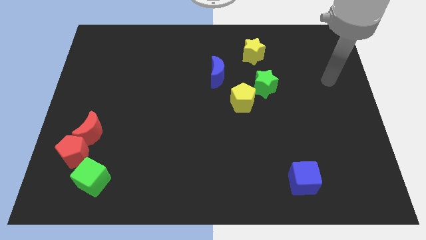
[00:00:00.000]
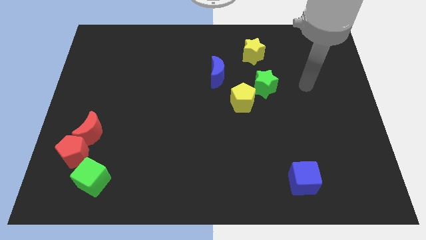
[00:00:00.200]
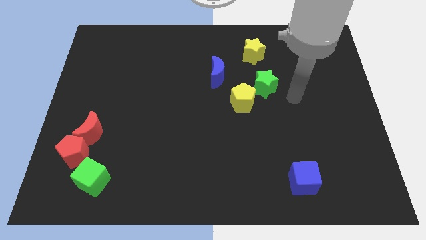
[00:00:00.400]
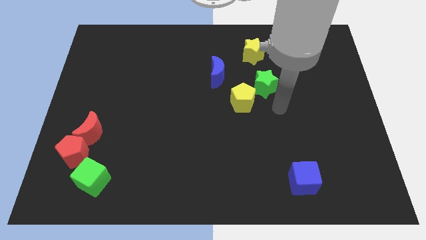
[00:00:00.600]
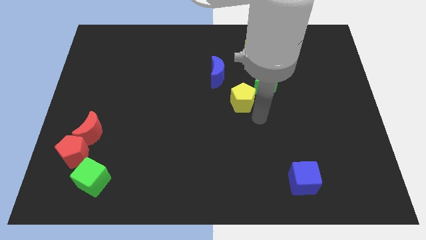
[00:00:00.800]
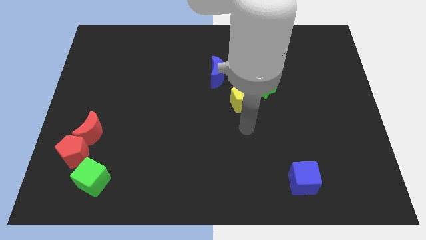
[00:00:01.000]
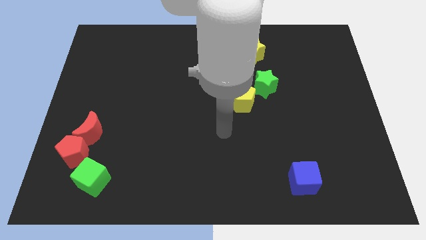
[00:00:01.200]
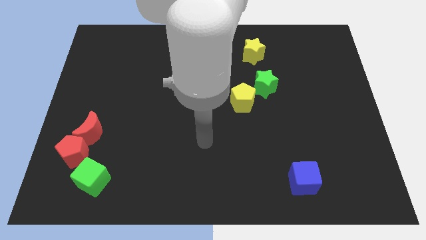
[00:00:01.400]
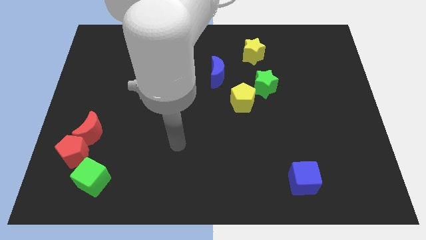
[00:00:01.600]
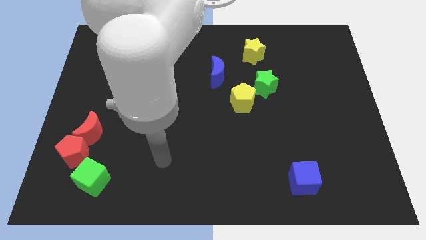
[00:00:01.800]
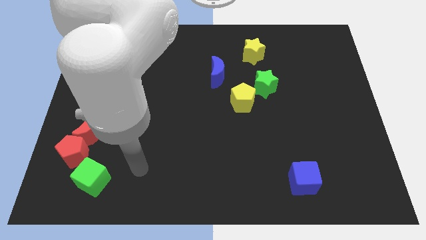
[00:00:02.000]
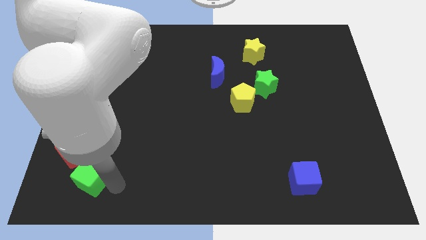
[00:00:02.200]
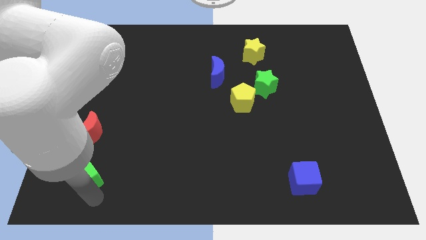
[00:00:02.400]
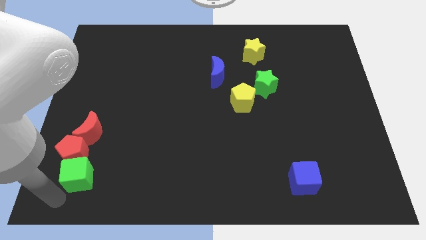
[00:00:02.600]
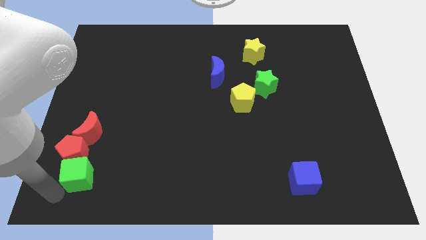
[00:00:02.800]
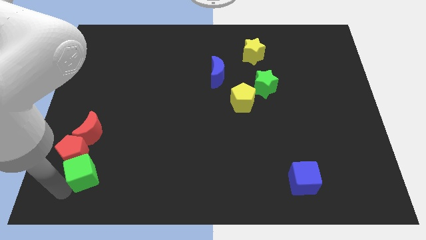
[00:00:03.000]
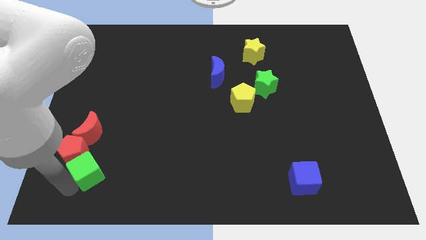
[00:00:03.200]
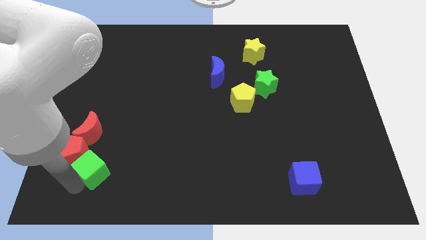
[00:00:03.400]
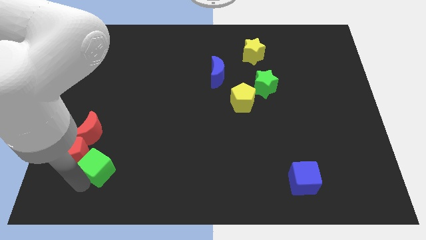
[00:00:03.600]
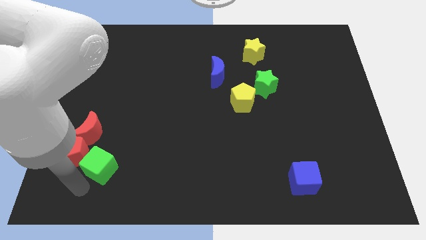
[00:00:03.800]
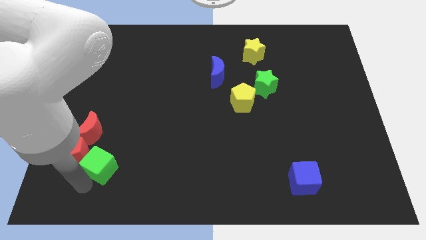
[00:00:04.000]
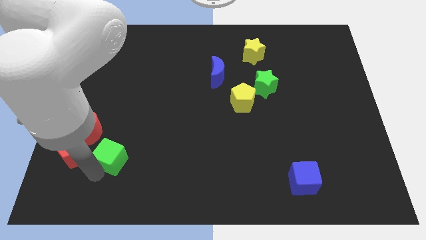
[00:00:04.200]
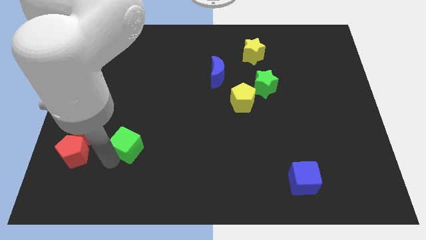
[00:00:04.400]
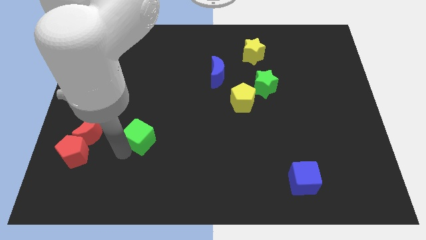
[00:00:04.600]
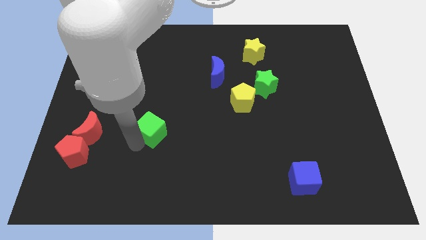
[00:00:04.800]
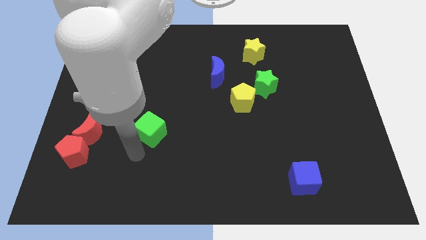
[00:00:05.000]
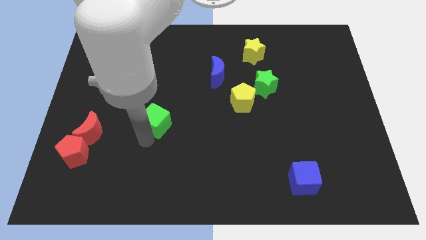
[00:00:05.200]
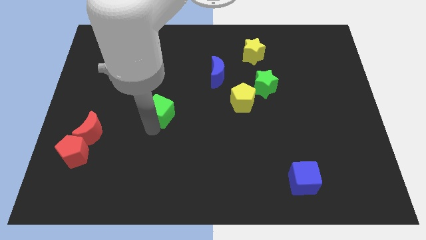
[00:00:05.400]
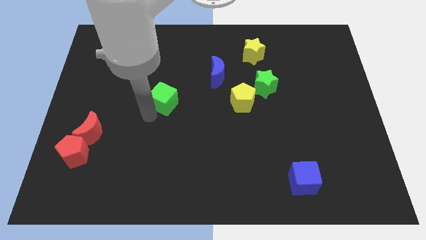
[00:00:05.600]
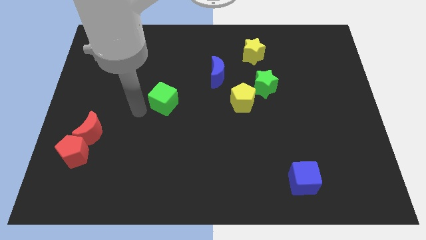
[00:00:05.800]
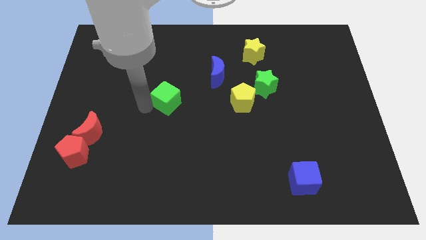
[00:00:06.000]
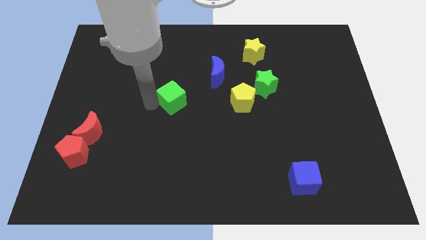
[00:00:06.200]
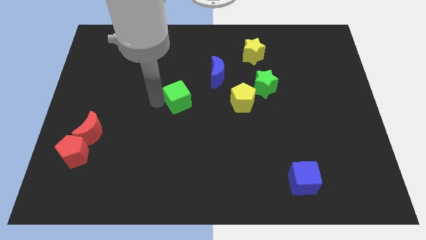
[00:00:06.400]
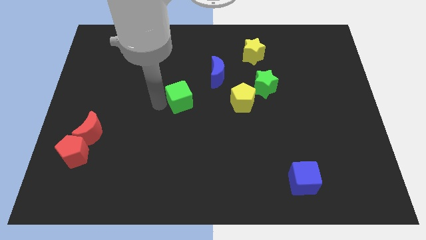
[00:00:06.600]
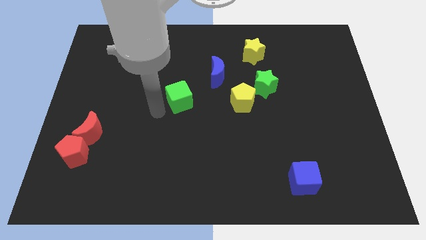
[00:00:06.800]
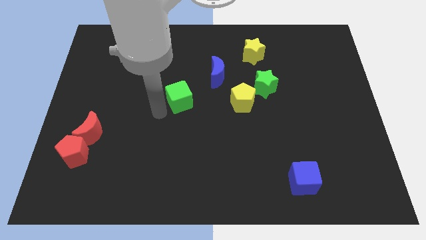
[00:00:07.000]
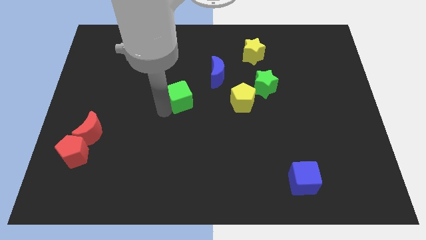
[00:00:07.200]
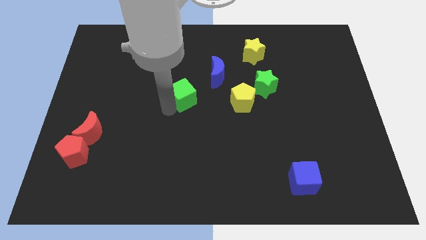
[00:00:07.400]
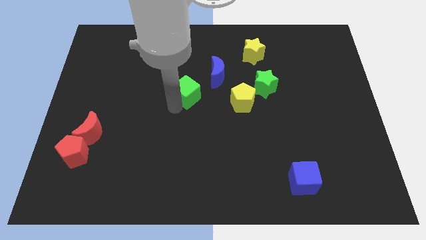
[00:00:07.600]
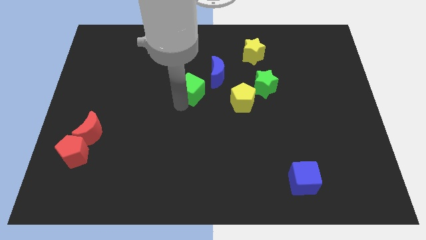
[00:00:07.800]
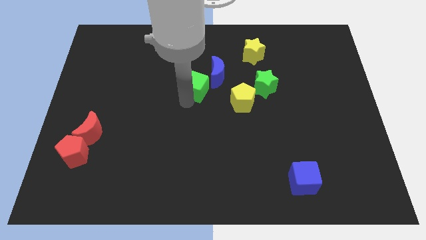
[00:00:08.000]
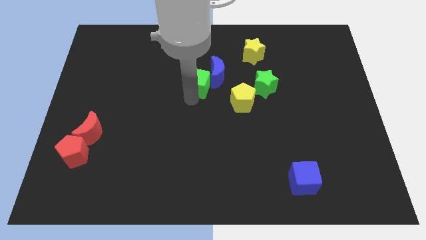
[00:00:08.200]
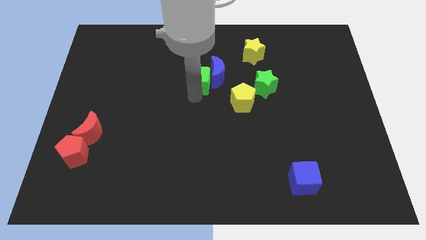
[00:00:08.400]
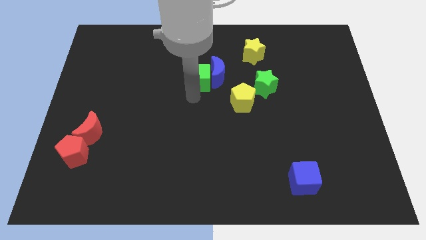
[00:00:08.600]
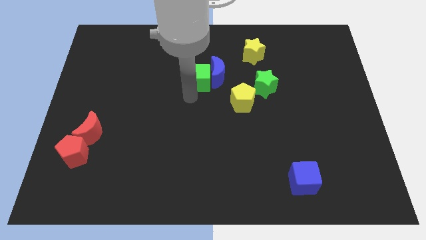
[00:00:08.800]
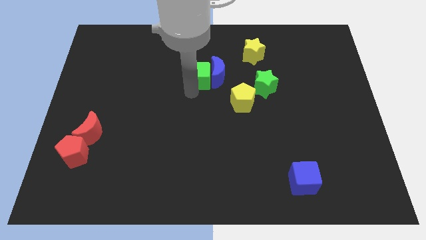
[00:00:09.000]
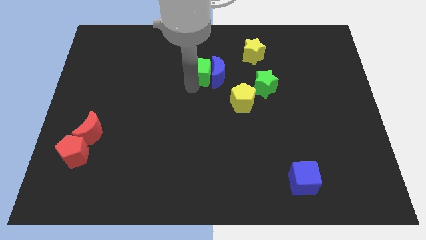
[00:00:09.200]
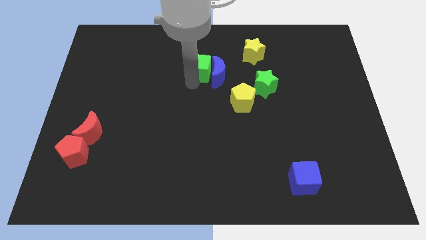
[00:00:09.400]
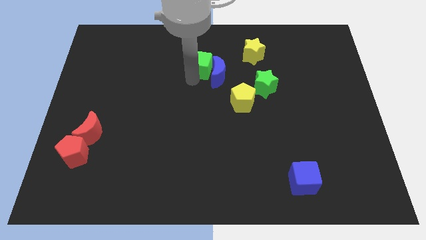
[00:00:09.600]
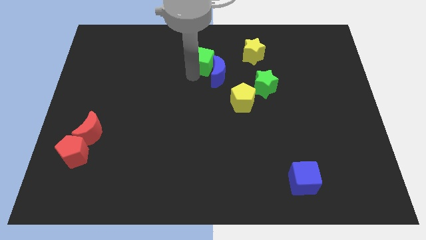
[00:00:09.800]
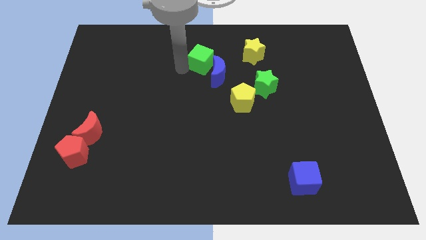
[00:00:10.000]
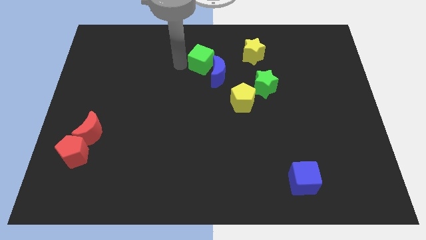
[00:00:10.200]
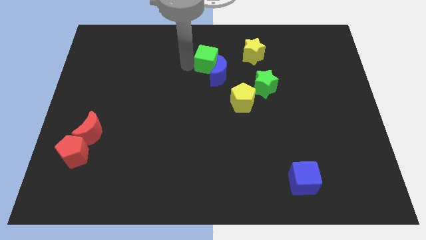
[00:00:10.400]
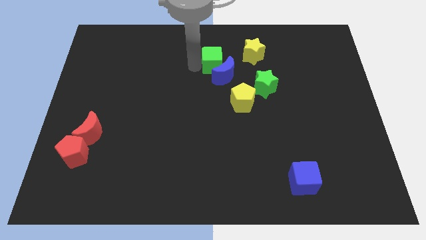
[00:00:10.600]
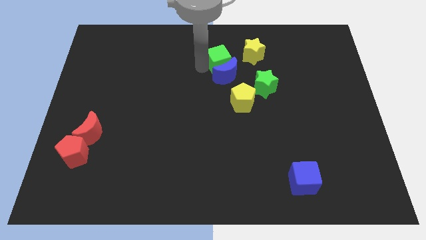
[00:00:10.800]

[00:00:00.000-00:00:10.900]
push the green cube to the top right of the blue moon

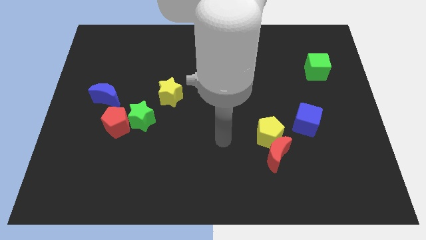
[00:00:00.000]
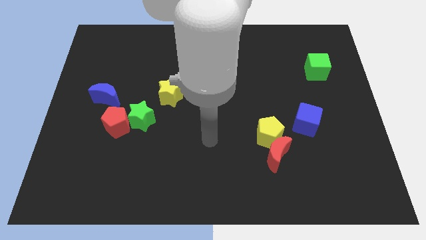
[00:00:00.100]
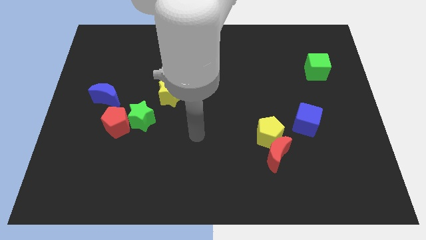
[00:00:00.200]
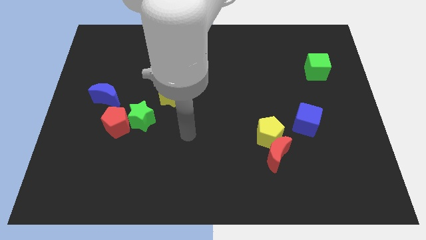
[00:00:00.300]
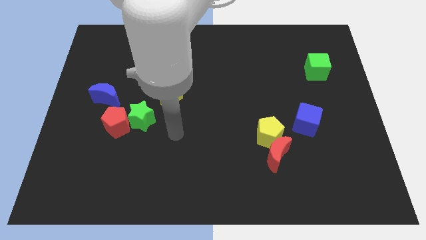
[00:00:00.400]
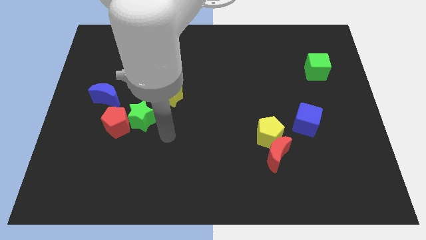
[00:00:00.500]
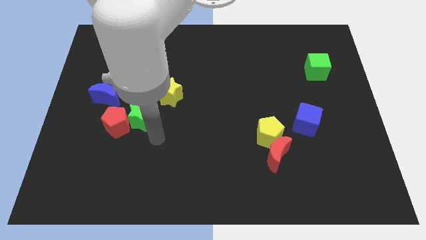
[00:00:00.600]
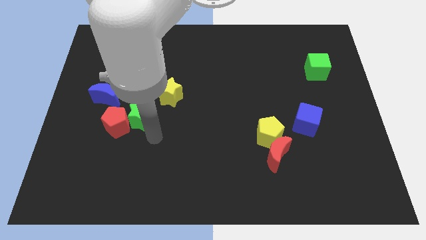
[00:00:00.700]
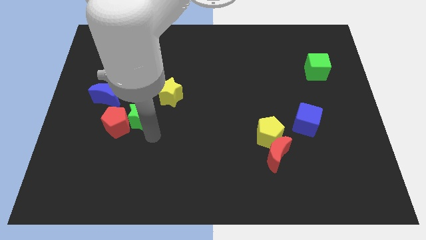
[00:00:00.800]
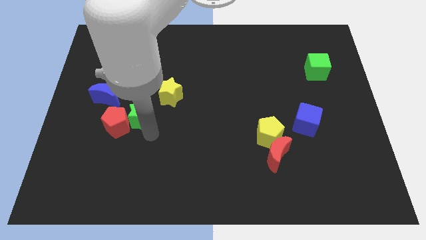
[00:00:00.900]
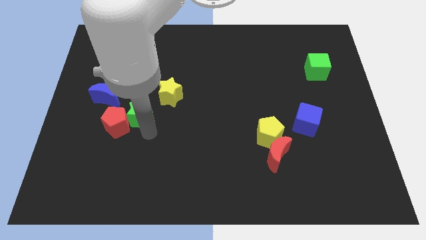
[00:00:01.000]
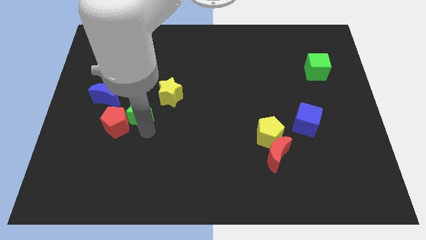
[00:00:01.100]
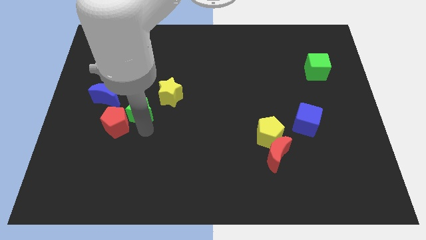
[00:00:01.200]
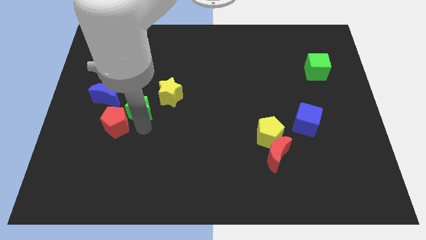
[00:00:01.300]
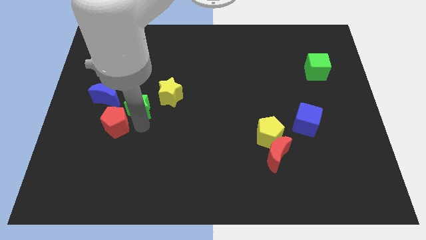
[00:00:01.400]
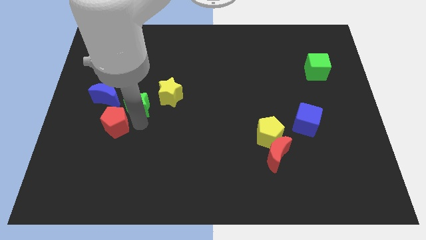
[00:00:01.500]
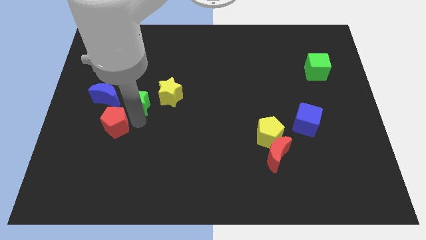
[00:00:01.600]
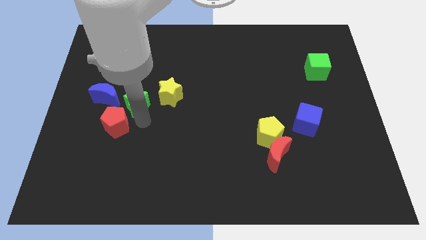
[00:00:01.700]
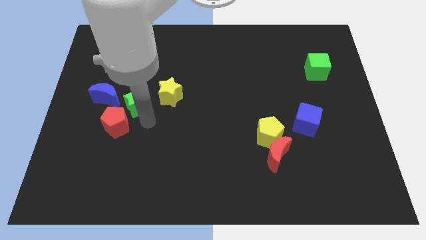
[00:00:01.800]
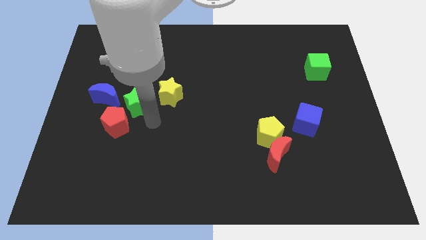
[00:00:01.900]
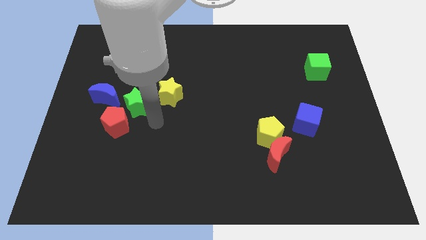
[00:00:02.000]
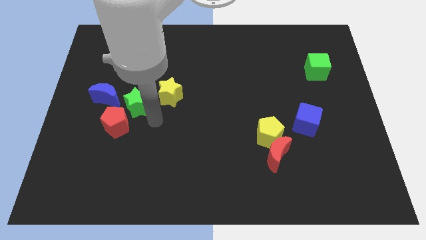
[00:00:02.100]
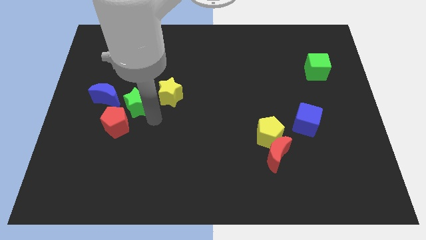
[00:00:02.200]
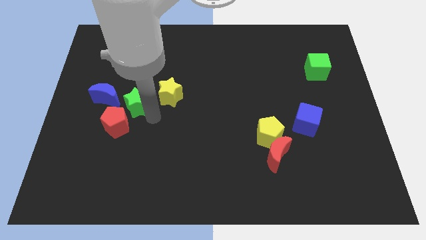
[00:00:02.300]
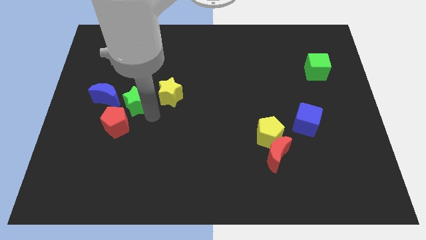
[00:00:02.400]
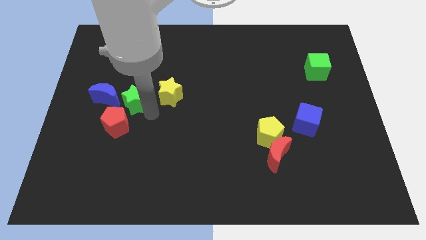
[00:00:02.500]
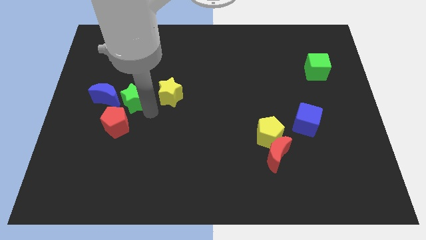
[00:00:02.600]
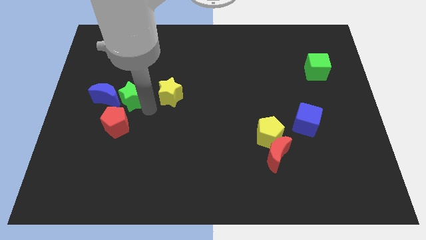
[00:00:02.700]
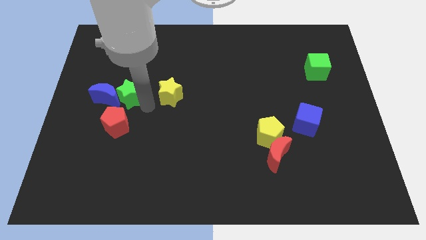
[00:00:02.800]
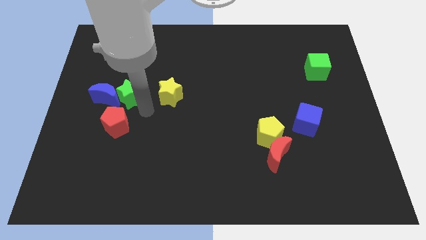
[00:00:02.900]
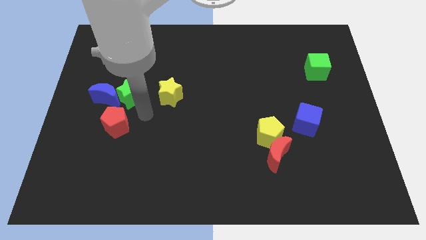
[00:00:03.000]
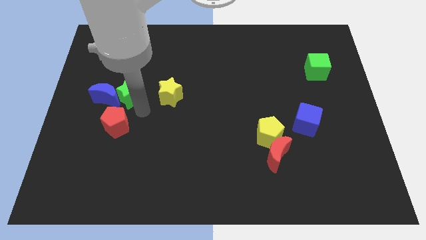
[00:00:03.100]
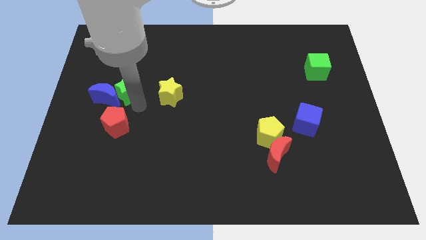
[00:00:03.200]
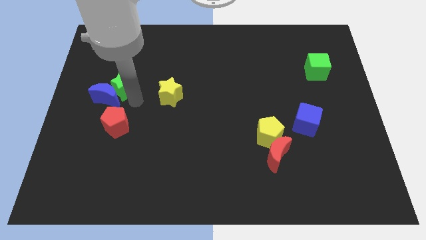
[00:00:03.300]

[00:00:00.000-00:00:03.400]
push the green star above the blue moon
